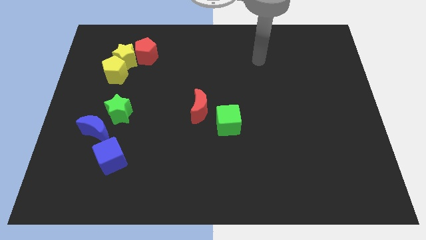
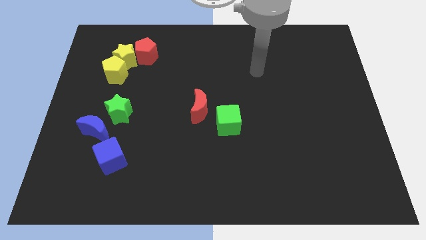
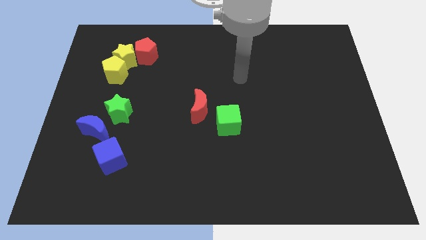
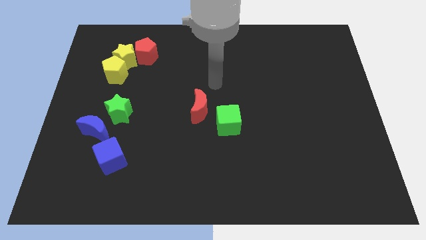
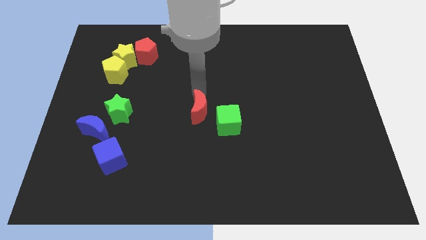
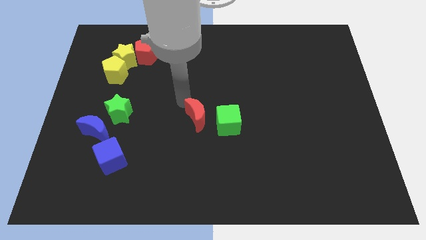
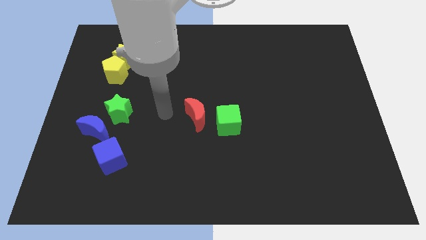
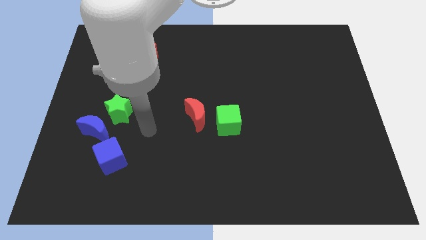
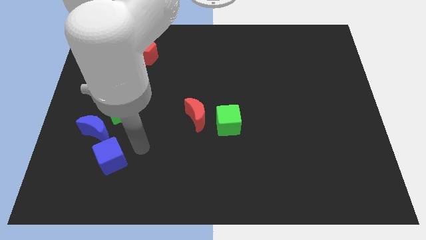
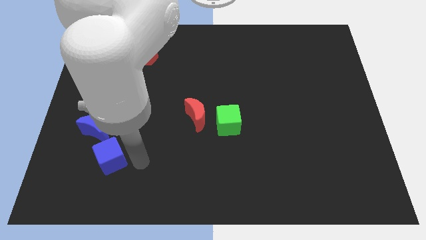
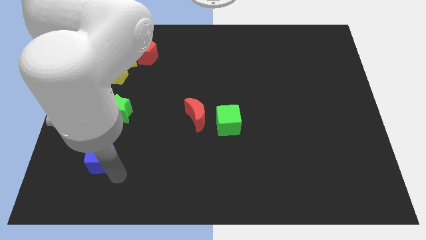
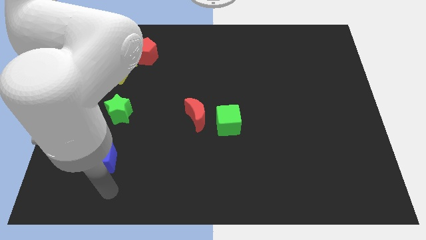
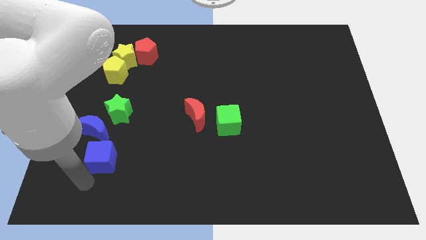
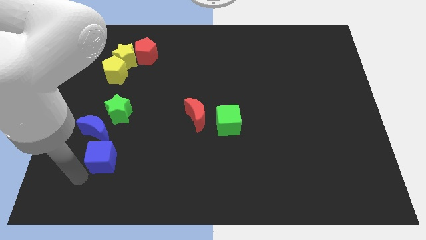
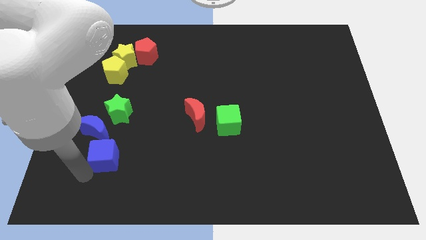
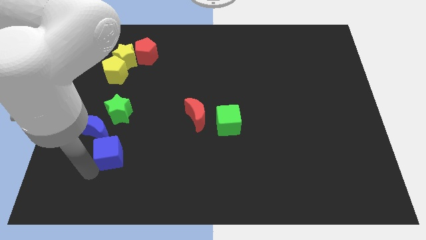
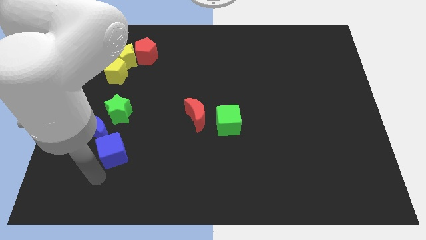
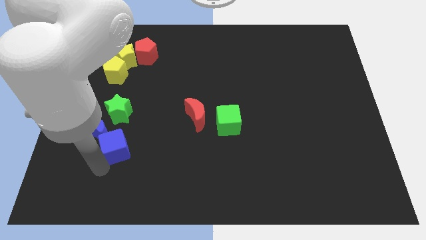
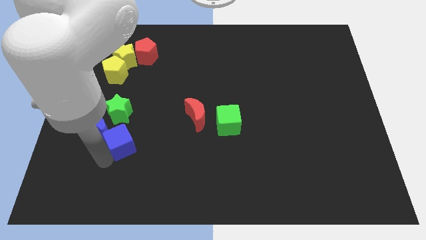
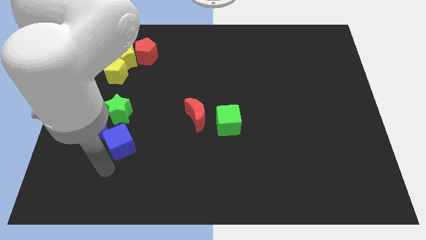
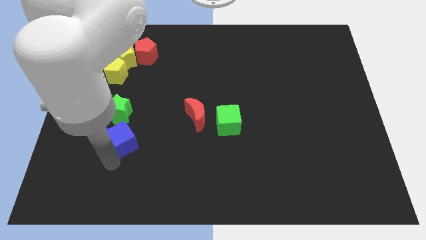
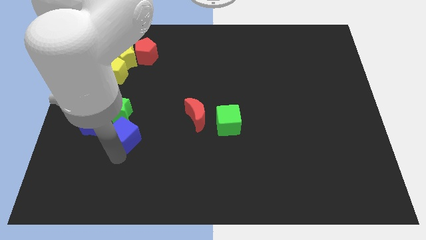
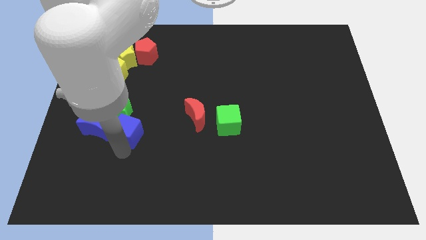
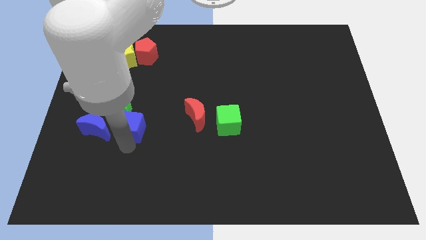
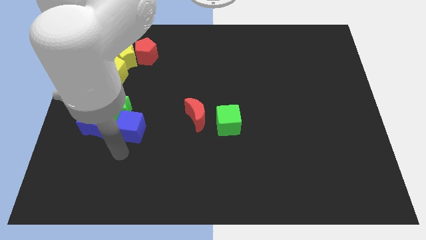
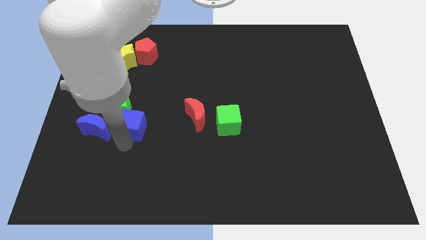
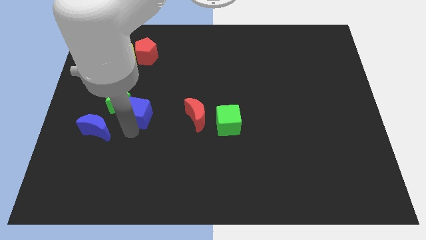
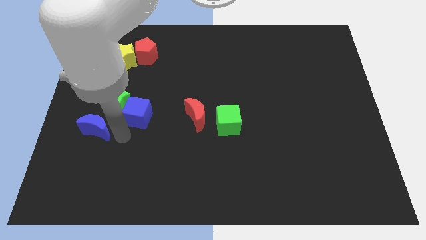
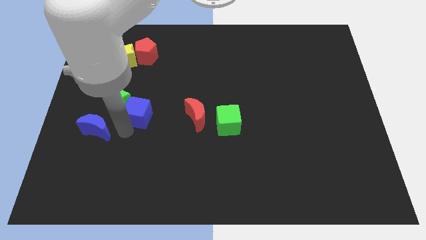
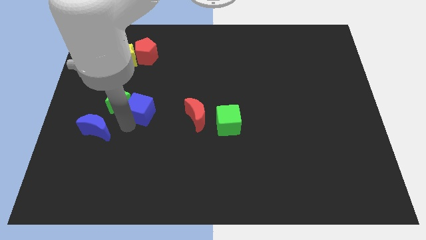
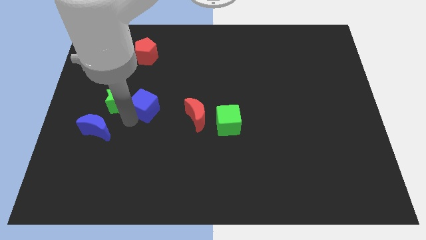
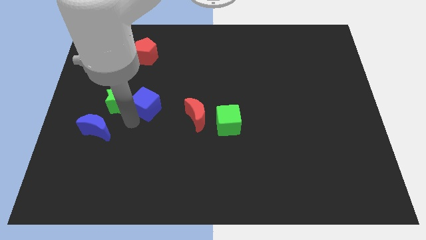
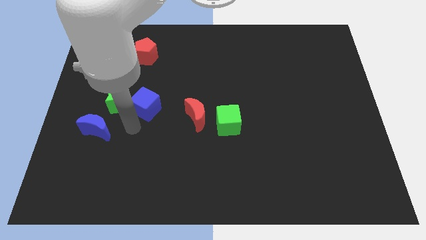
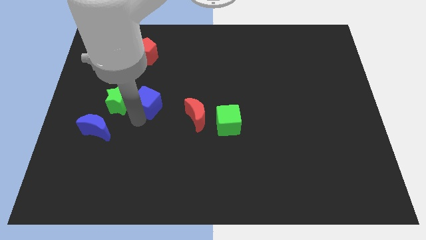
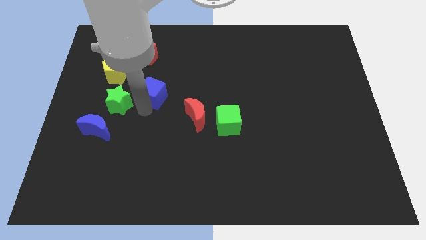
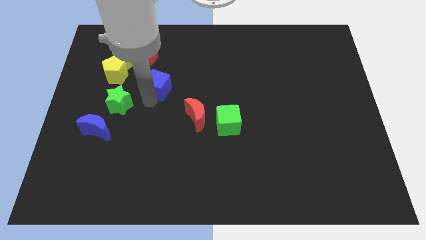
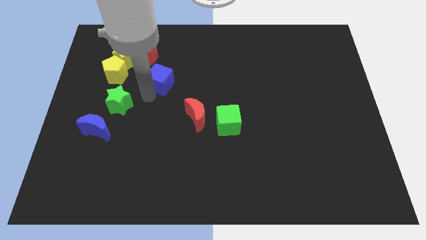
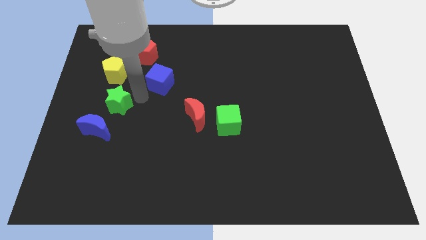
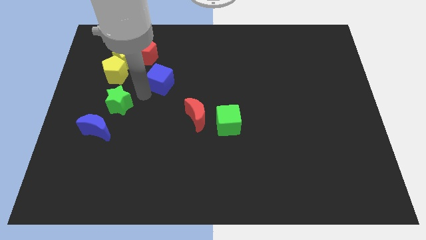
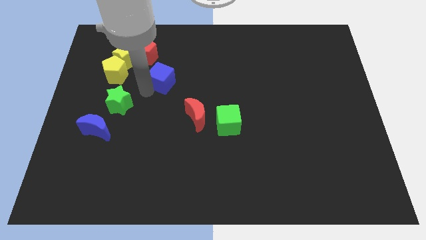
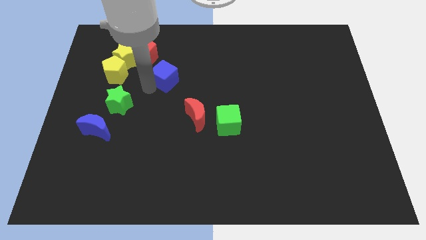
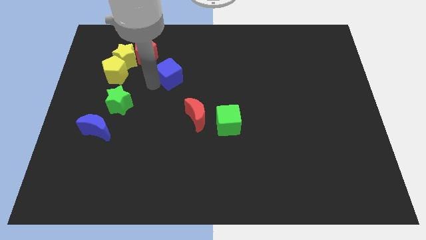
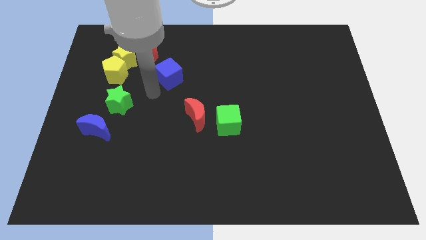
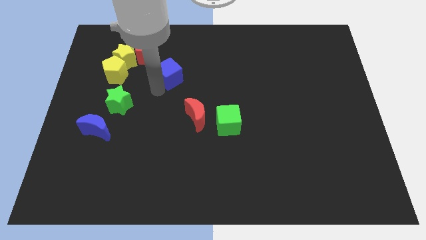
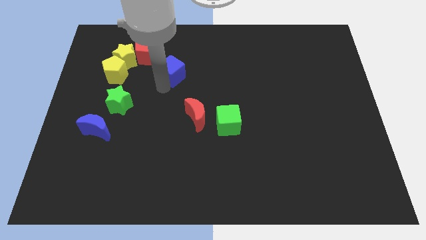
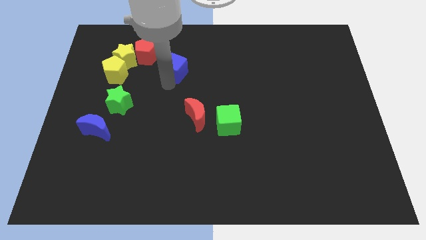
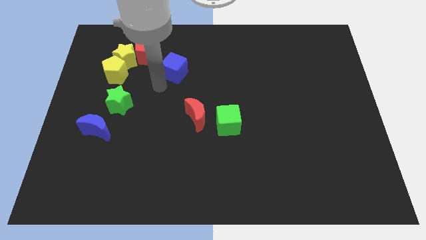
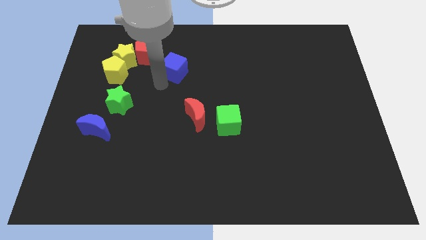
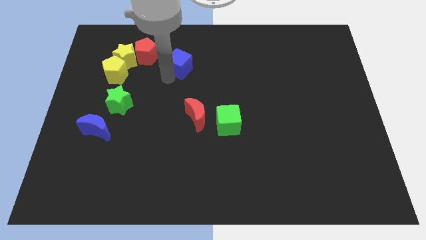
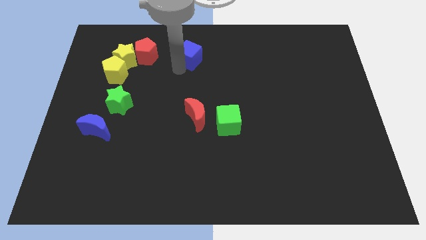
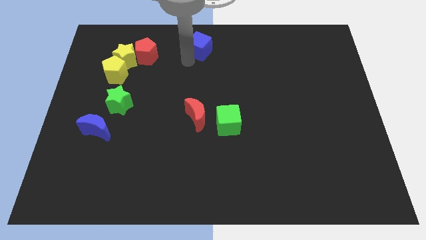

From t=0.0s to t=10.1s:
slide the blue cube to the towards your base

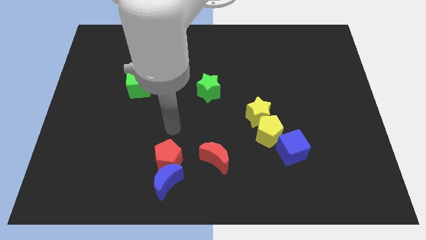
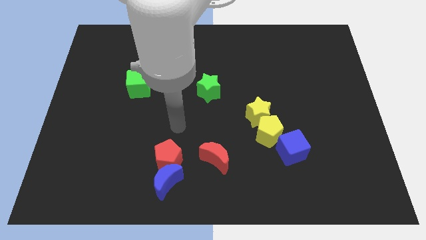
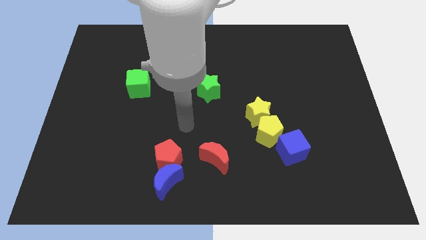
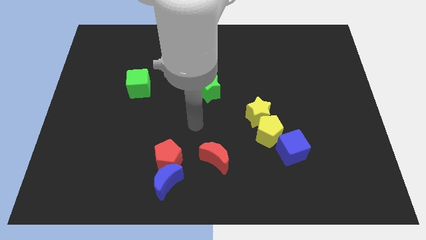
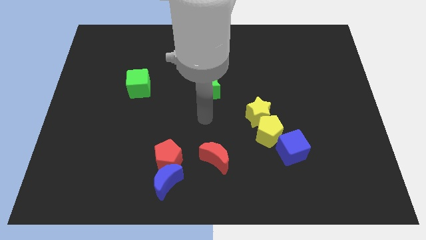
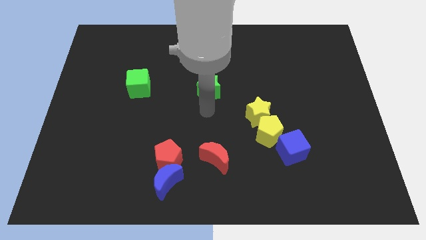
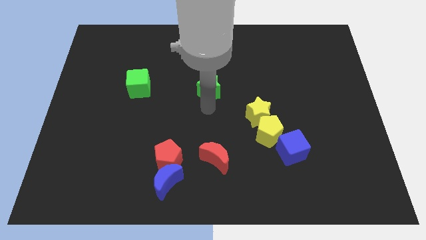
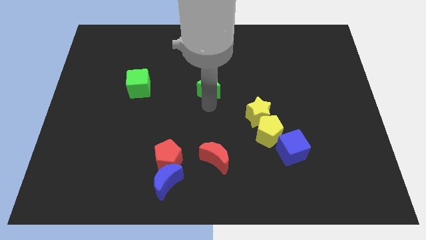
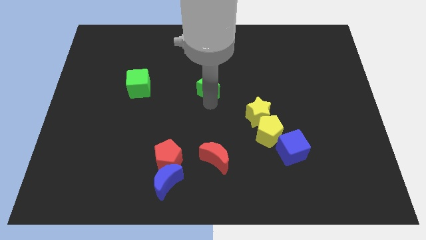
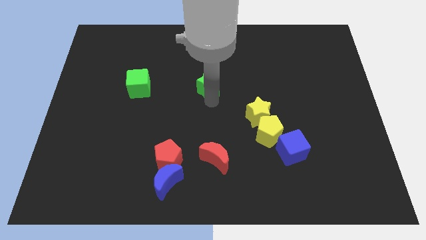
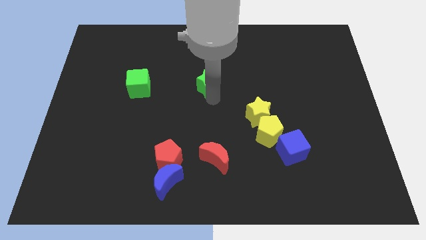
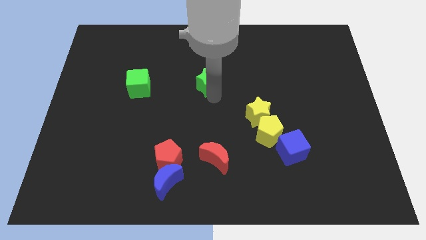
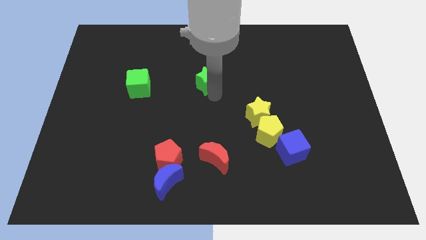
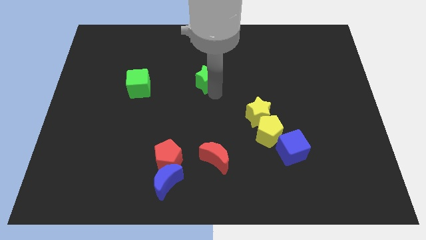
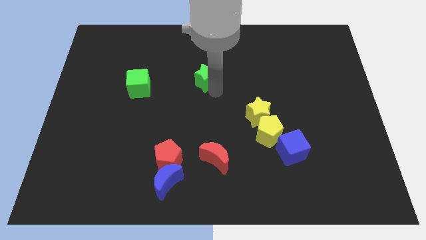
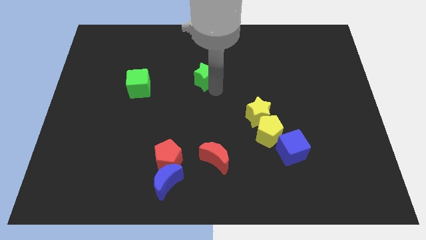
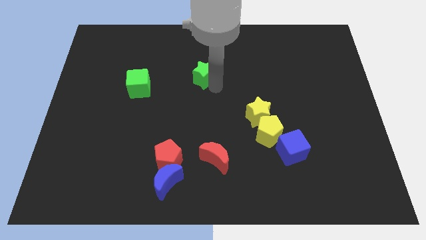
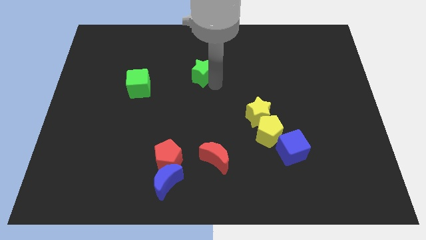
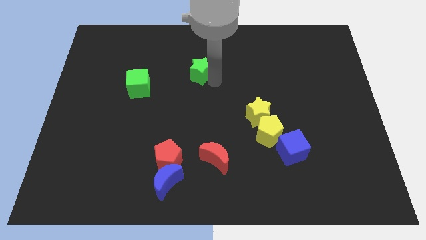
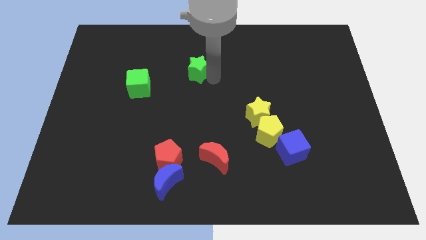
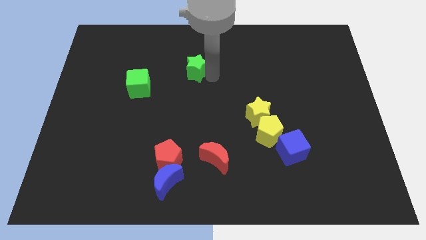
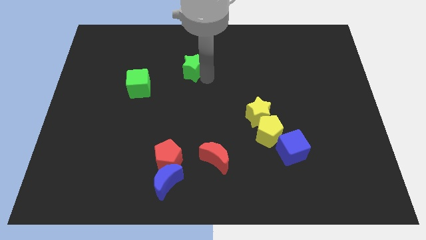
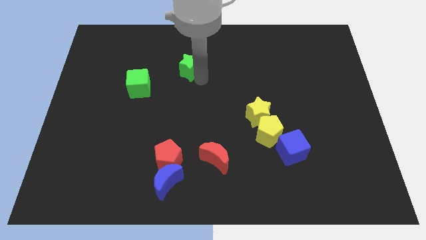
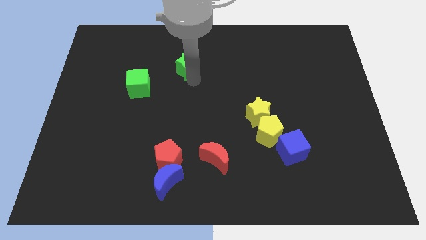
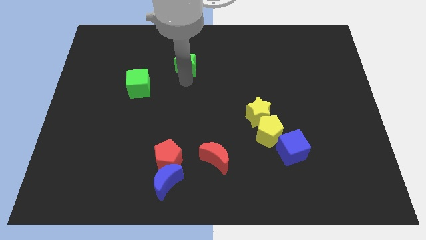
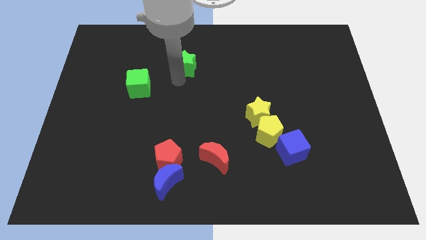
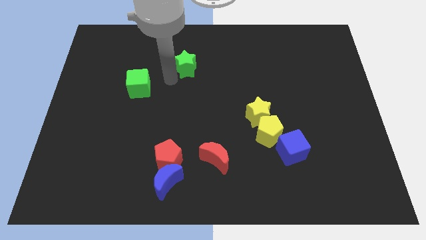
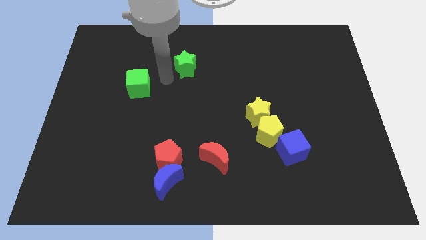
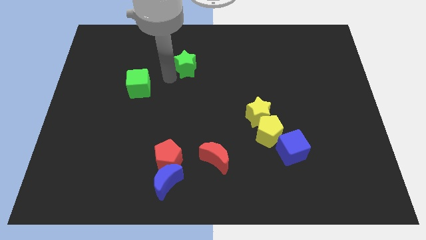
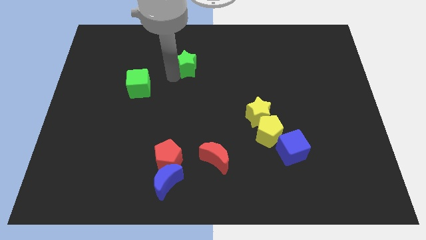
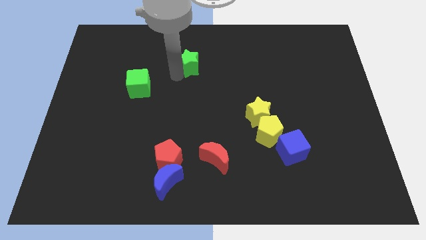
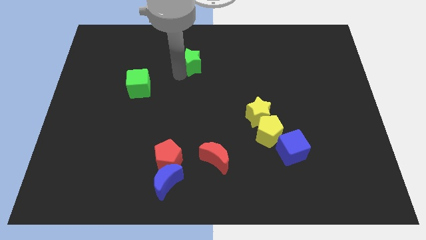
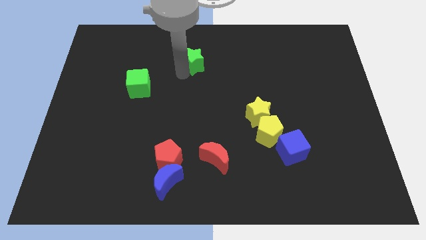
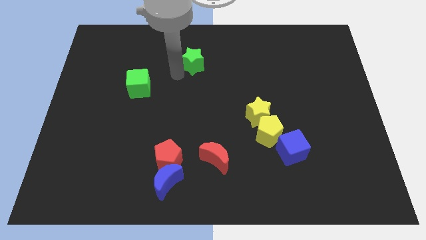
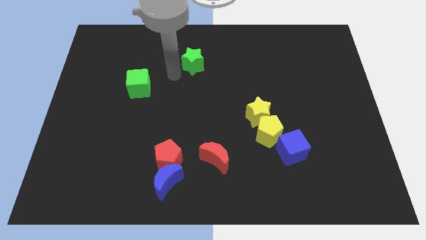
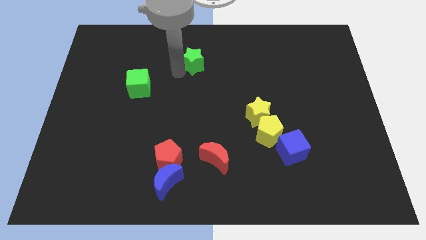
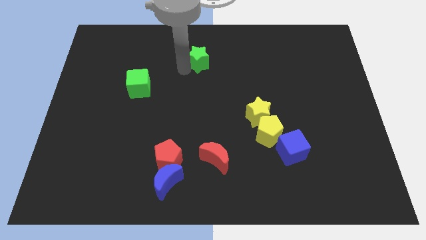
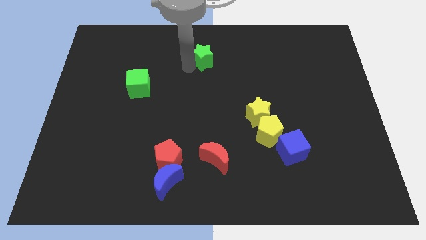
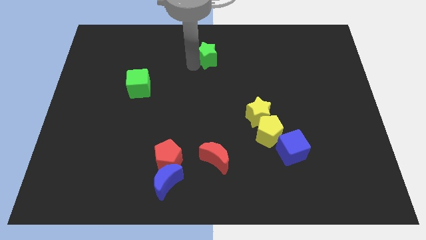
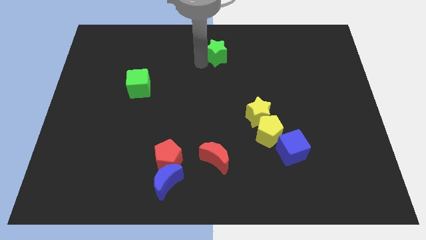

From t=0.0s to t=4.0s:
put the green star to the top
